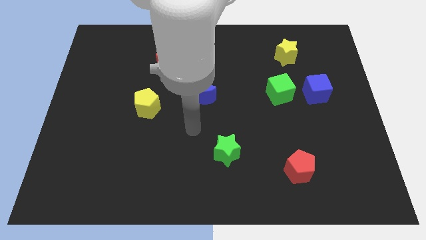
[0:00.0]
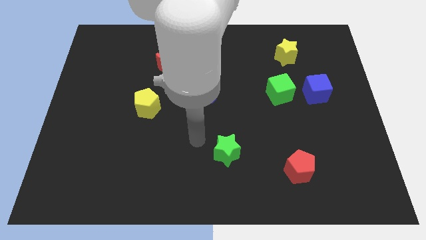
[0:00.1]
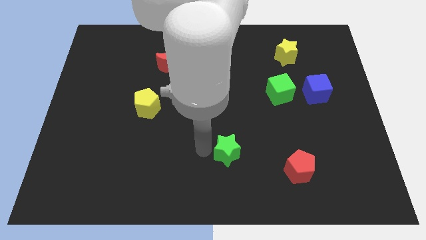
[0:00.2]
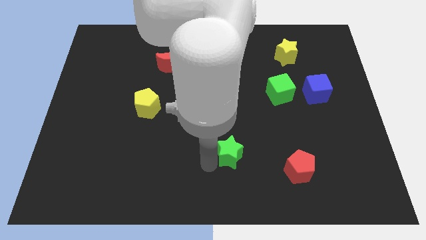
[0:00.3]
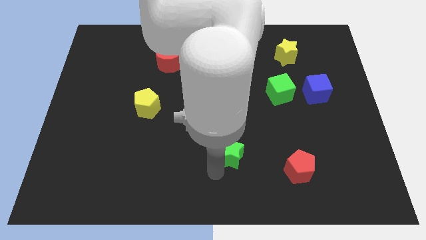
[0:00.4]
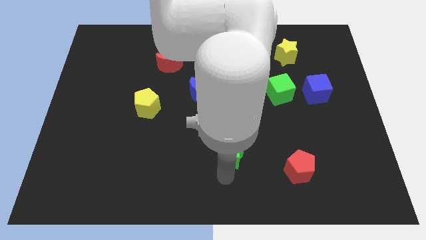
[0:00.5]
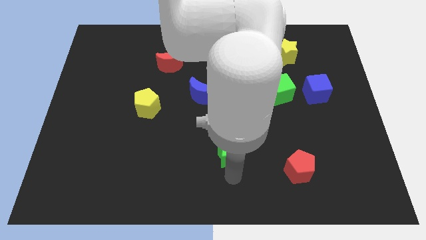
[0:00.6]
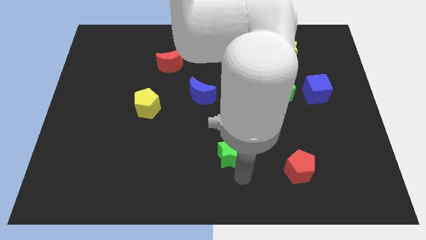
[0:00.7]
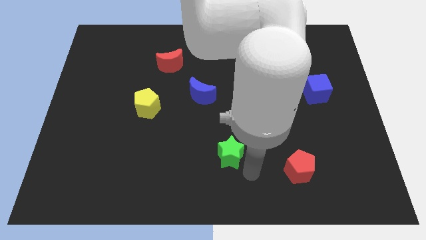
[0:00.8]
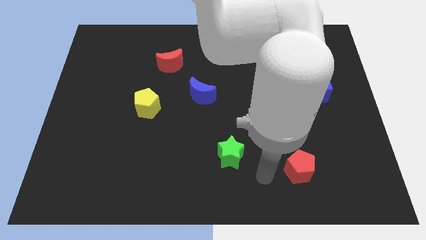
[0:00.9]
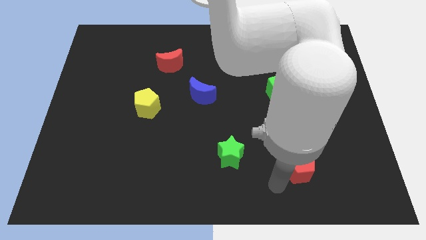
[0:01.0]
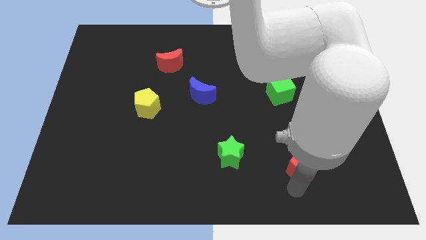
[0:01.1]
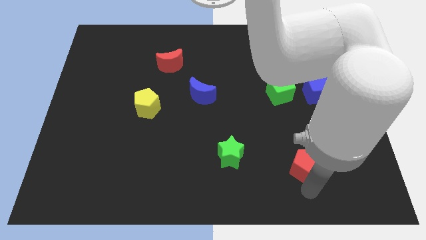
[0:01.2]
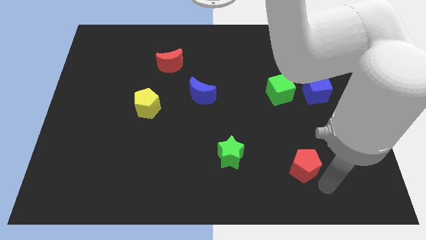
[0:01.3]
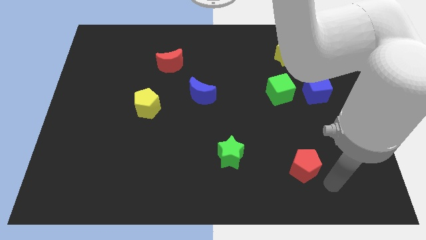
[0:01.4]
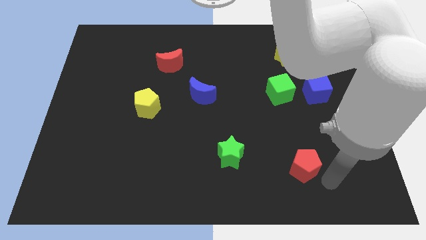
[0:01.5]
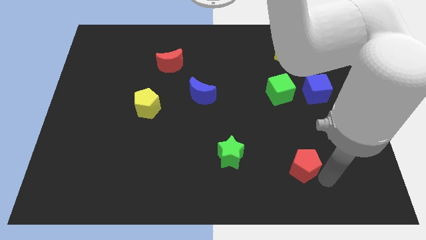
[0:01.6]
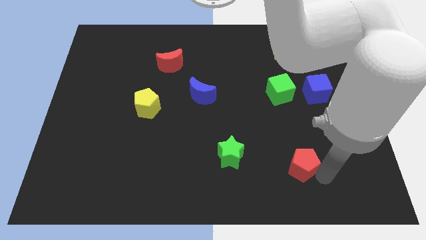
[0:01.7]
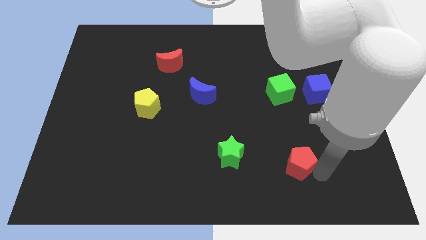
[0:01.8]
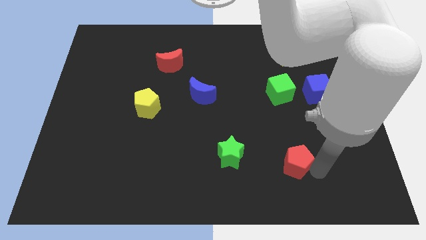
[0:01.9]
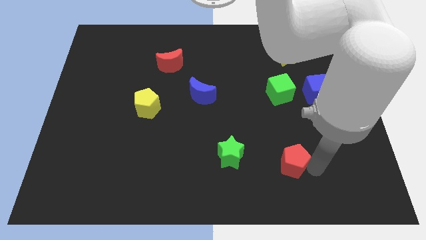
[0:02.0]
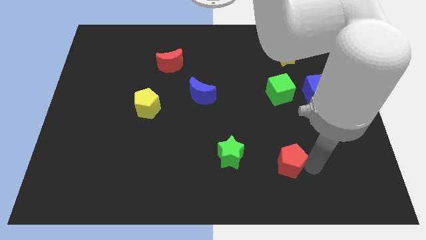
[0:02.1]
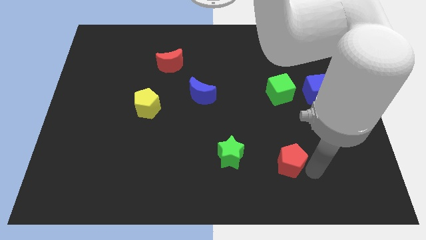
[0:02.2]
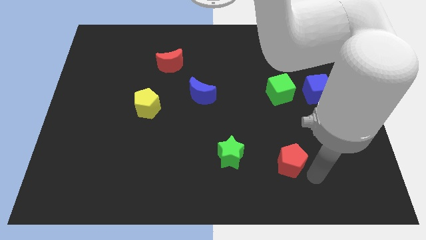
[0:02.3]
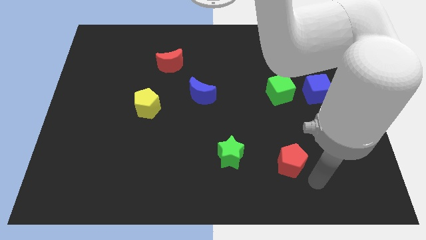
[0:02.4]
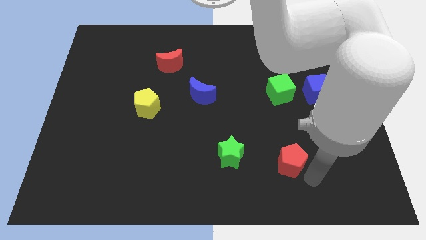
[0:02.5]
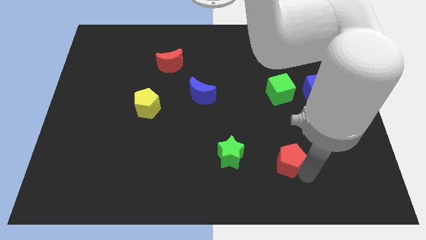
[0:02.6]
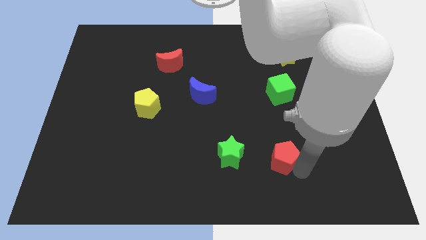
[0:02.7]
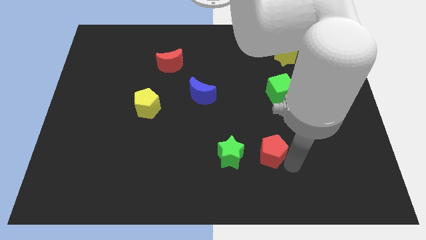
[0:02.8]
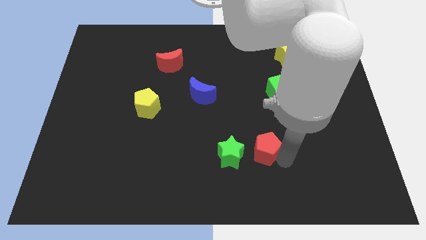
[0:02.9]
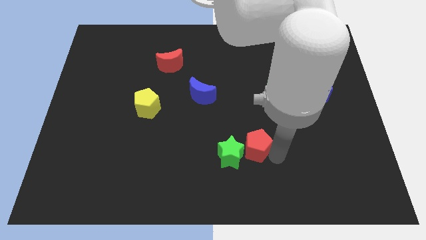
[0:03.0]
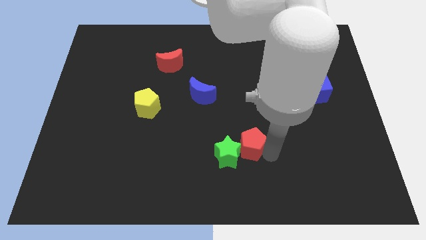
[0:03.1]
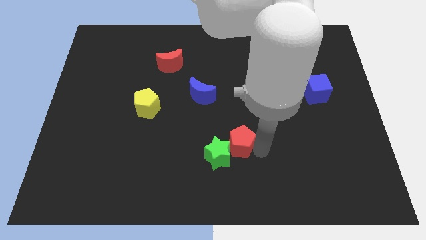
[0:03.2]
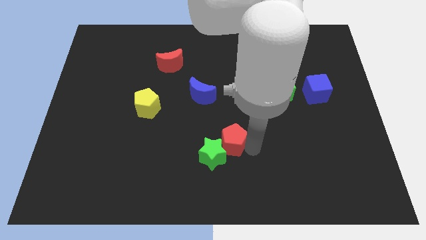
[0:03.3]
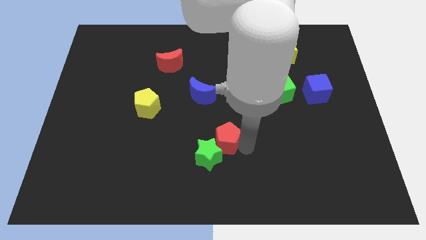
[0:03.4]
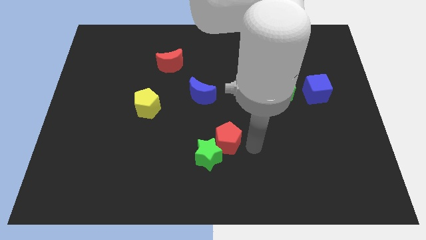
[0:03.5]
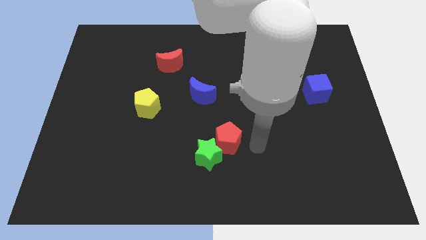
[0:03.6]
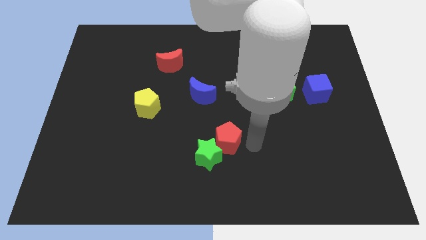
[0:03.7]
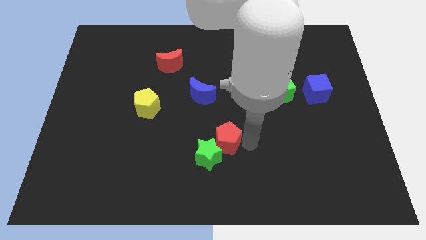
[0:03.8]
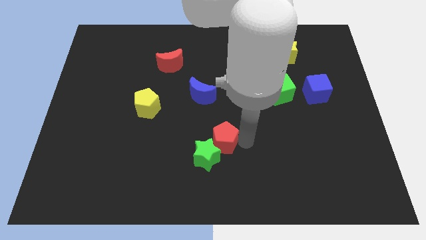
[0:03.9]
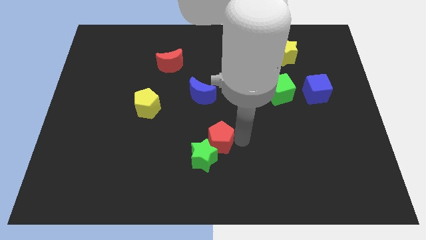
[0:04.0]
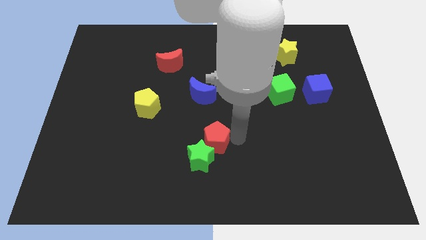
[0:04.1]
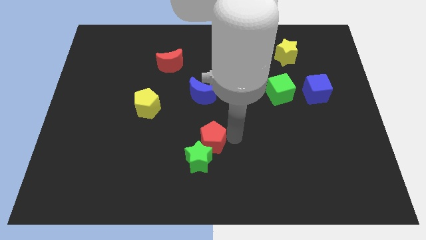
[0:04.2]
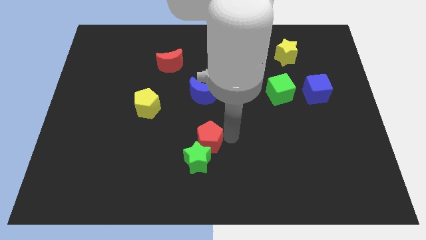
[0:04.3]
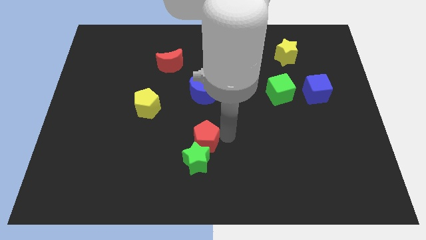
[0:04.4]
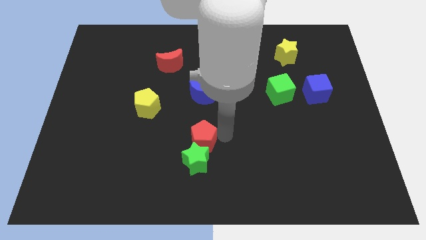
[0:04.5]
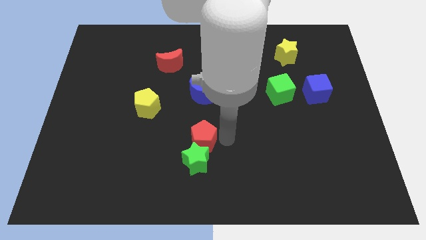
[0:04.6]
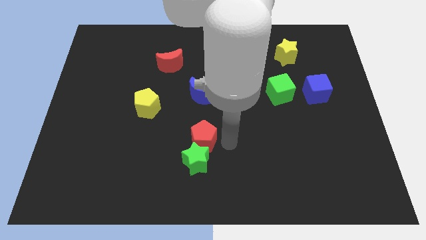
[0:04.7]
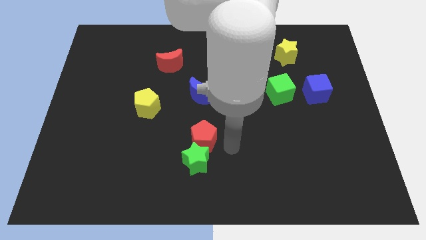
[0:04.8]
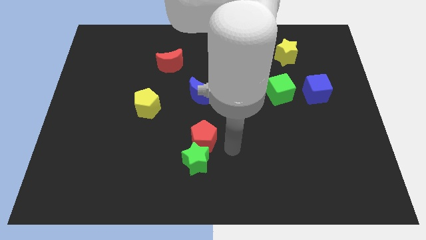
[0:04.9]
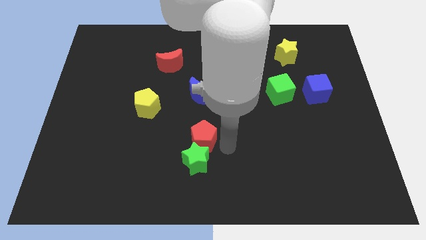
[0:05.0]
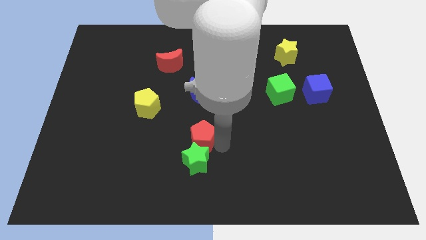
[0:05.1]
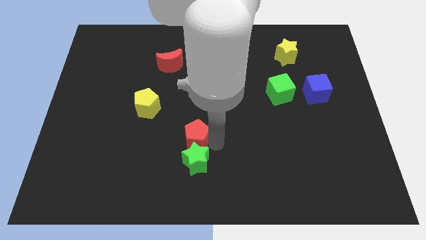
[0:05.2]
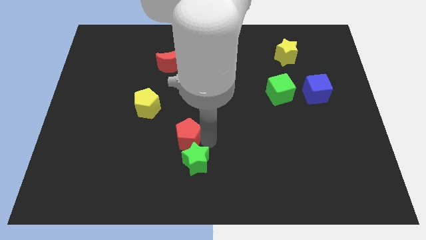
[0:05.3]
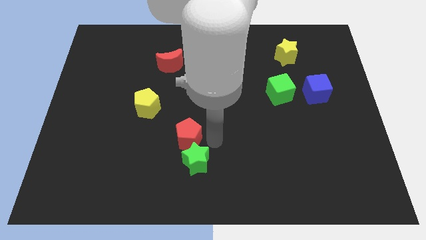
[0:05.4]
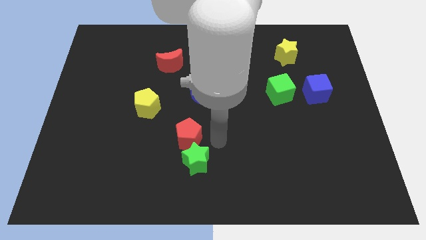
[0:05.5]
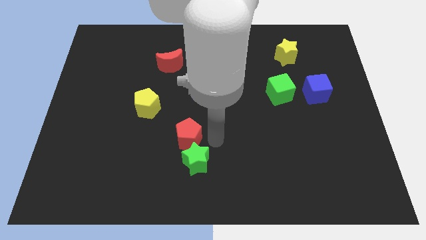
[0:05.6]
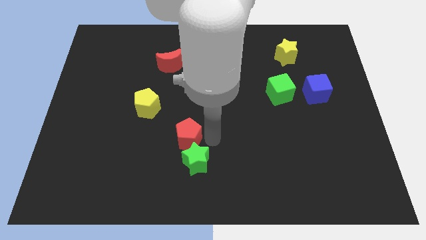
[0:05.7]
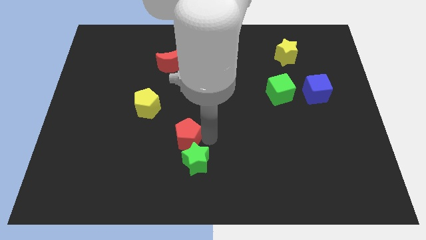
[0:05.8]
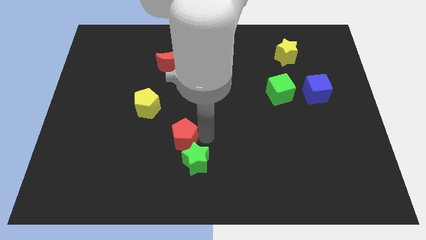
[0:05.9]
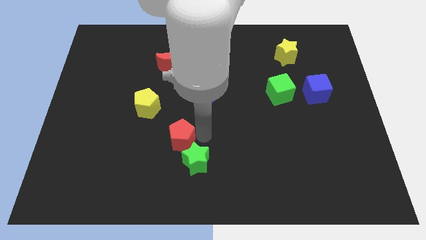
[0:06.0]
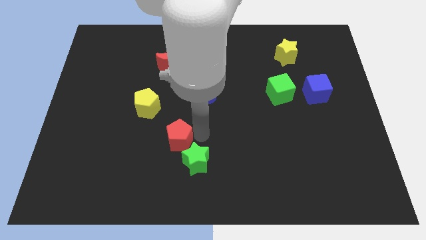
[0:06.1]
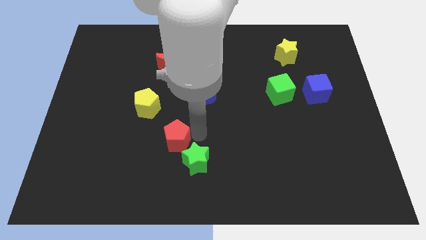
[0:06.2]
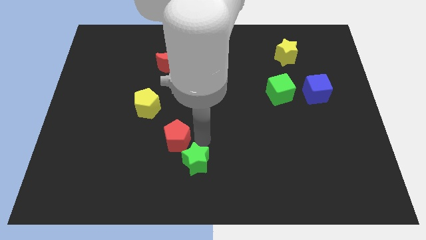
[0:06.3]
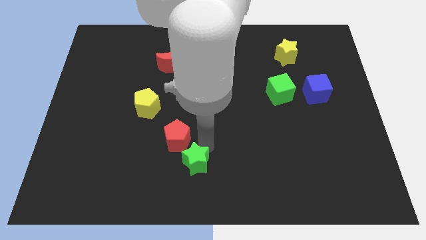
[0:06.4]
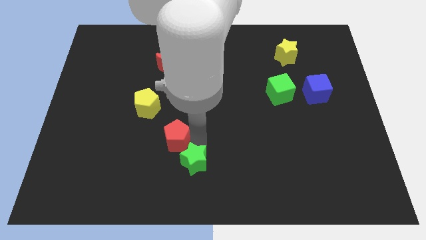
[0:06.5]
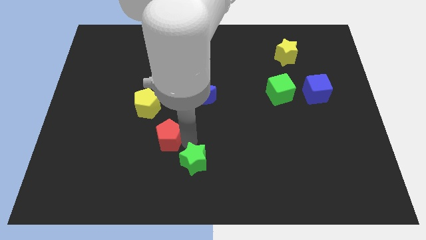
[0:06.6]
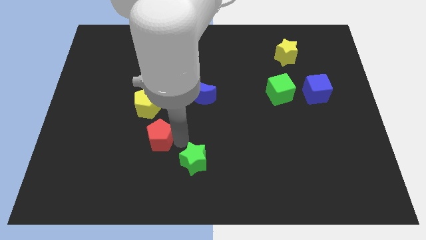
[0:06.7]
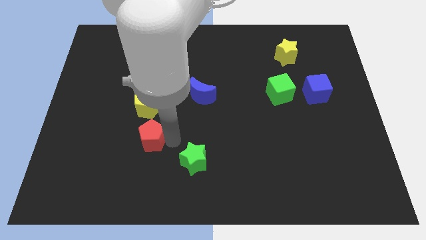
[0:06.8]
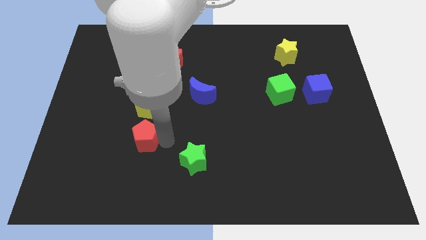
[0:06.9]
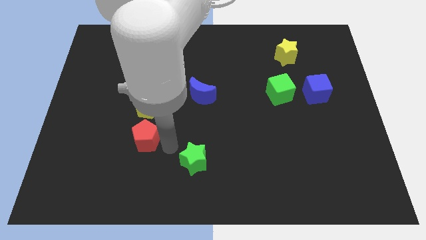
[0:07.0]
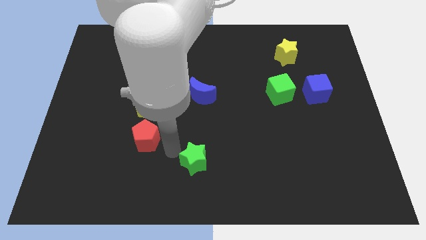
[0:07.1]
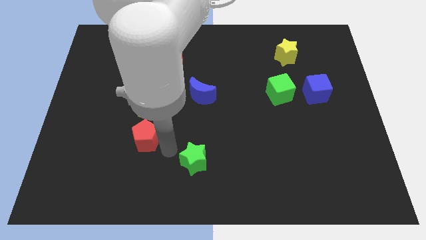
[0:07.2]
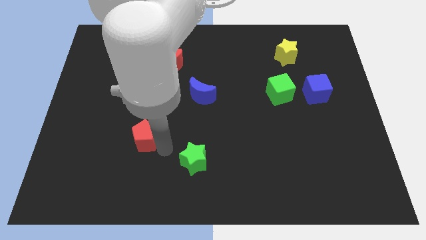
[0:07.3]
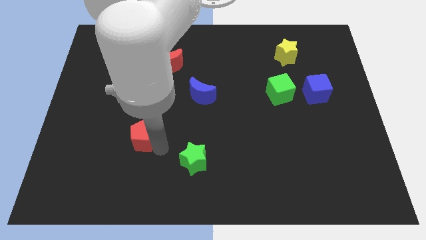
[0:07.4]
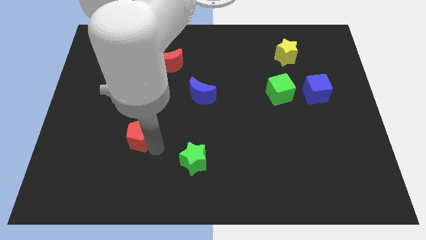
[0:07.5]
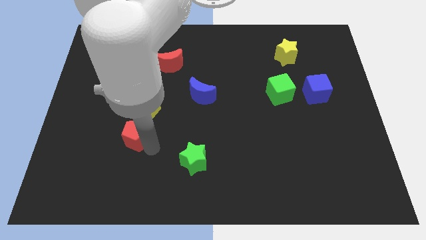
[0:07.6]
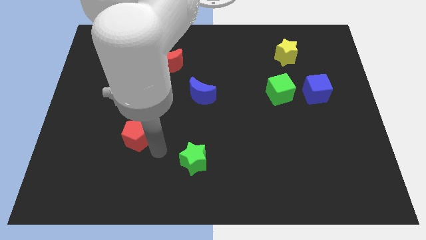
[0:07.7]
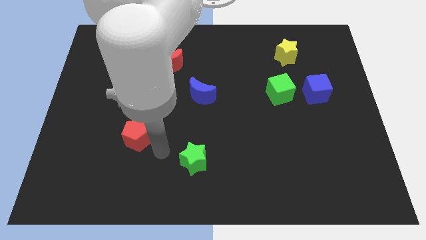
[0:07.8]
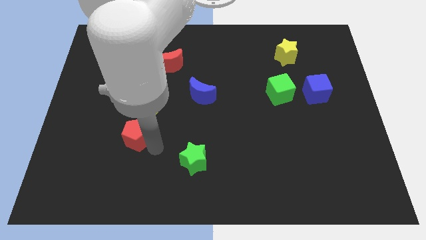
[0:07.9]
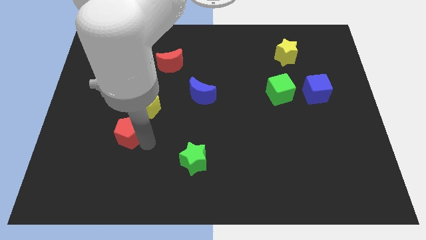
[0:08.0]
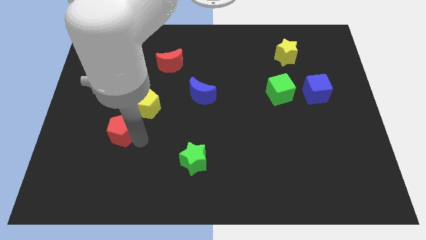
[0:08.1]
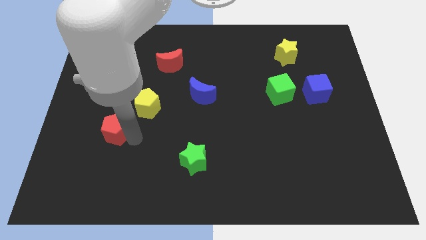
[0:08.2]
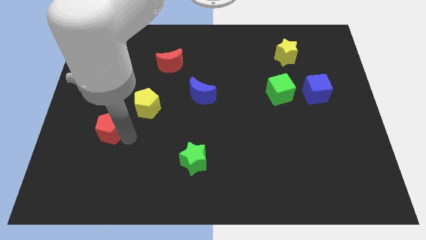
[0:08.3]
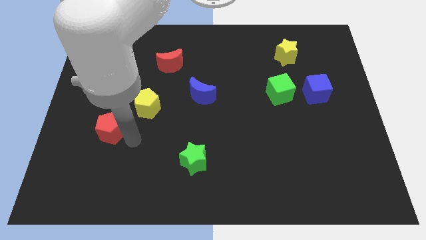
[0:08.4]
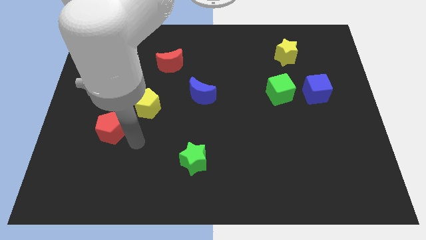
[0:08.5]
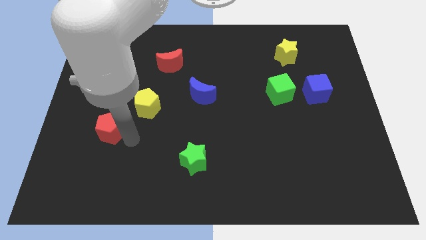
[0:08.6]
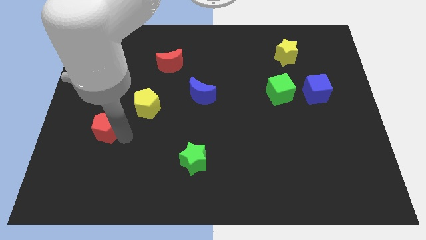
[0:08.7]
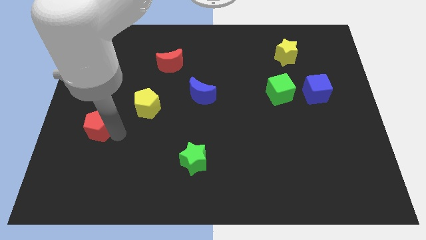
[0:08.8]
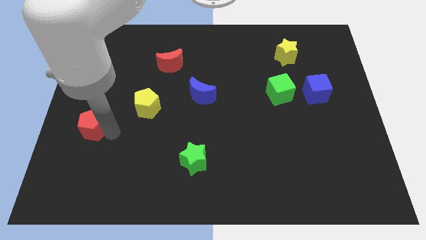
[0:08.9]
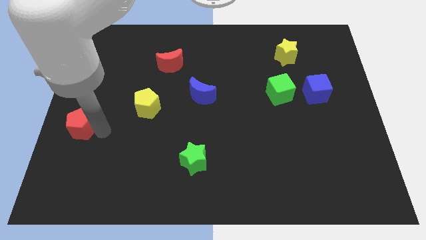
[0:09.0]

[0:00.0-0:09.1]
put the red pentagon to the left side of the board
